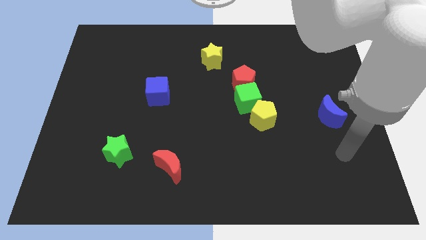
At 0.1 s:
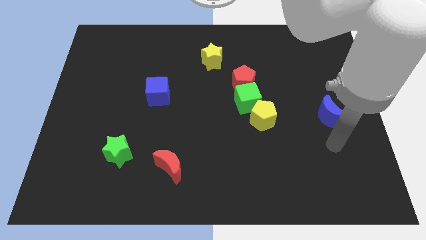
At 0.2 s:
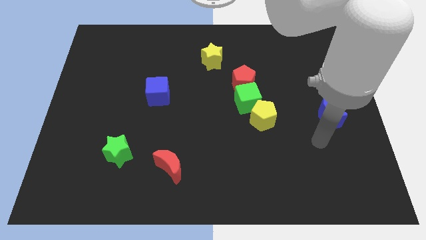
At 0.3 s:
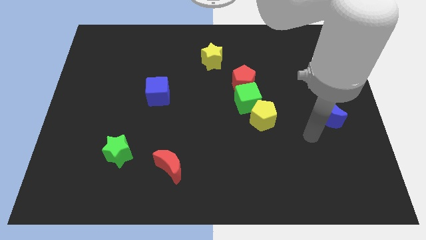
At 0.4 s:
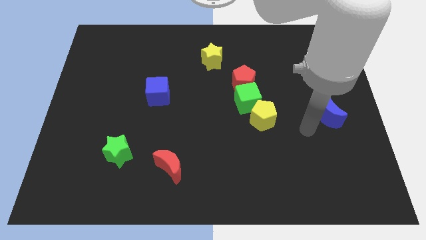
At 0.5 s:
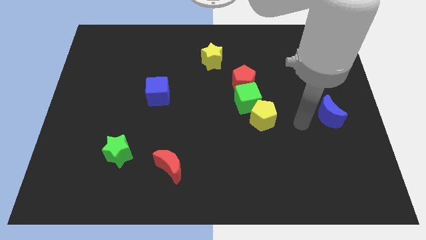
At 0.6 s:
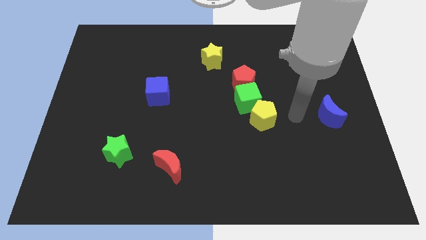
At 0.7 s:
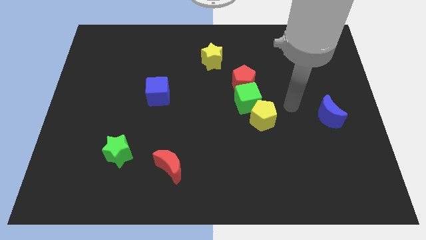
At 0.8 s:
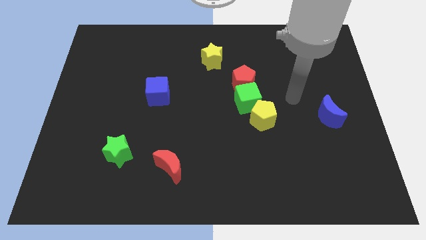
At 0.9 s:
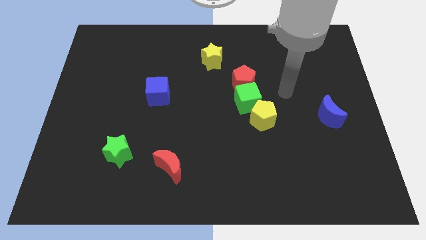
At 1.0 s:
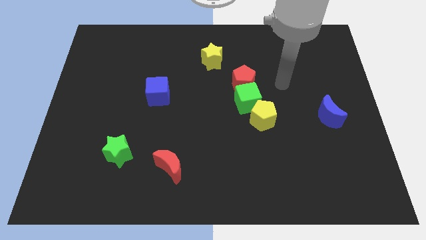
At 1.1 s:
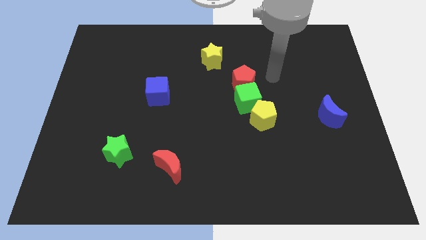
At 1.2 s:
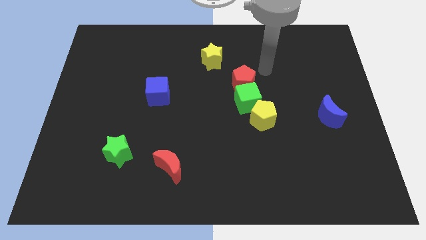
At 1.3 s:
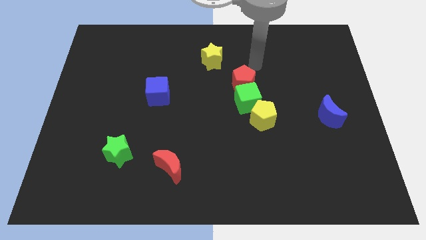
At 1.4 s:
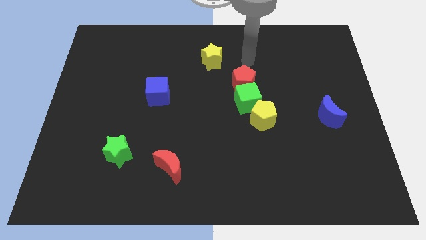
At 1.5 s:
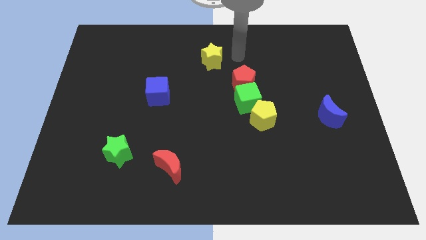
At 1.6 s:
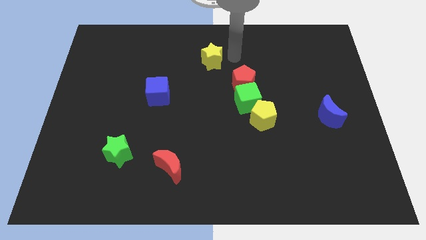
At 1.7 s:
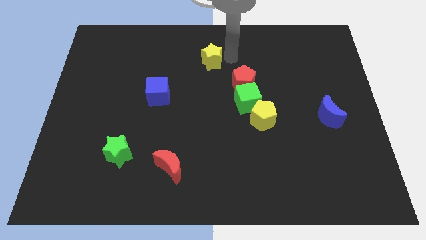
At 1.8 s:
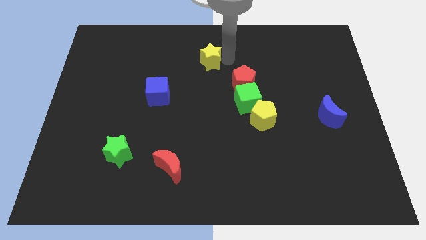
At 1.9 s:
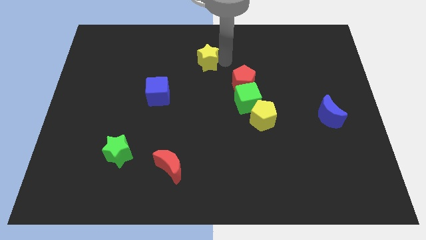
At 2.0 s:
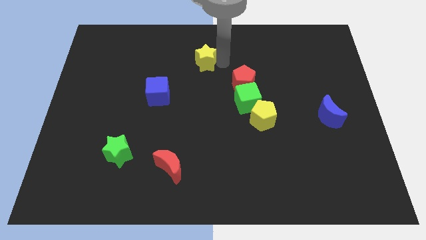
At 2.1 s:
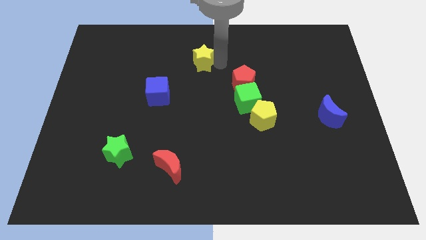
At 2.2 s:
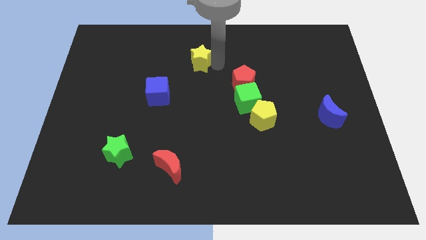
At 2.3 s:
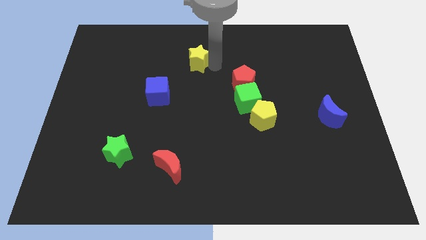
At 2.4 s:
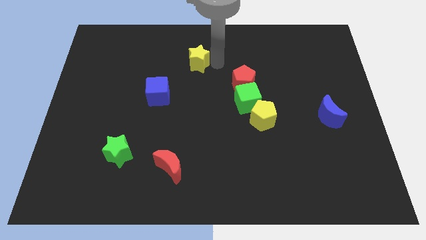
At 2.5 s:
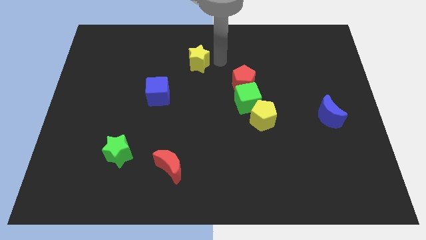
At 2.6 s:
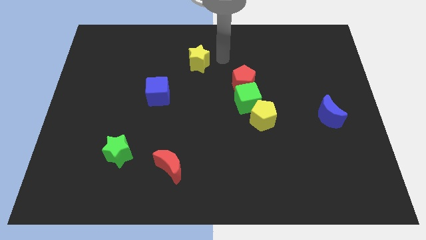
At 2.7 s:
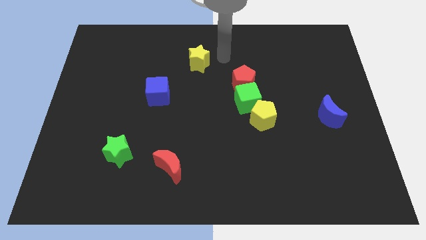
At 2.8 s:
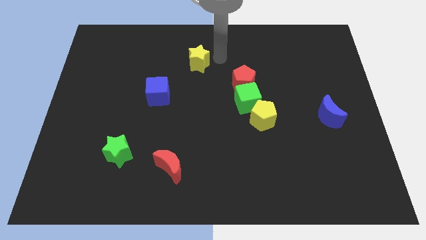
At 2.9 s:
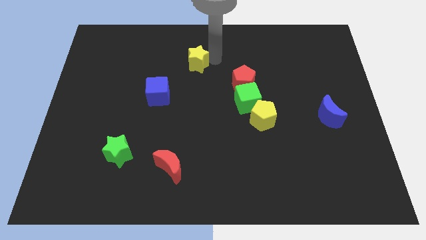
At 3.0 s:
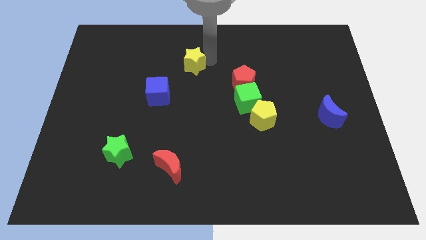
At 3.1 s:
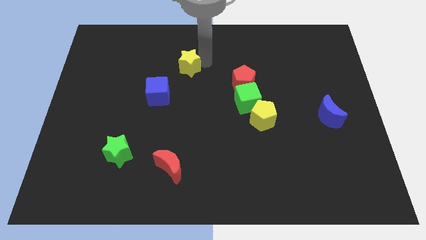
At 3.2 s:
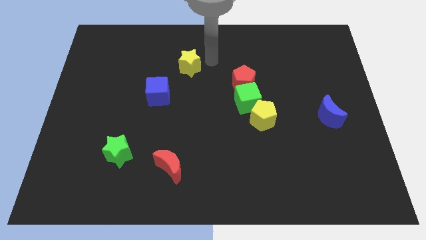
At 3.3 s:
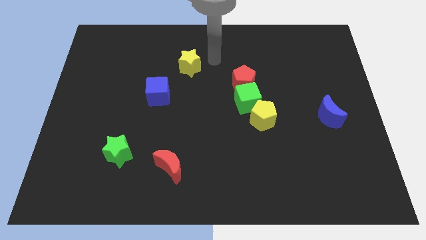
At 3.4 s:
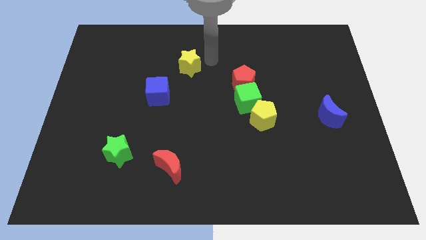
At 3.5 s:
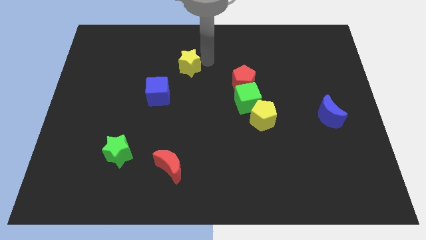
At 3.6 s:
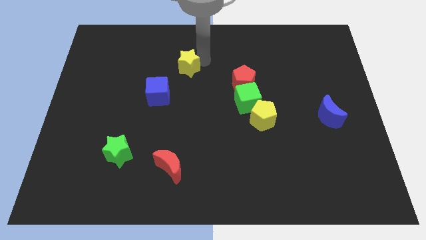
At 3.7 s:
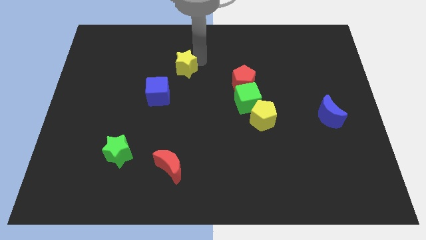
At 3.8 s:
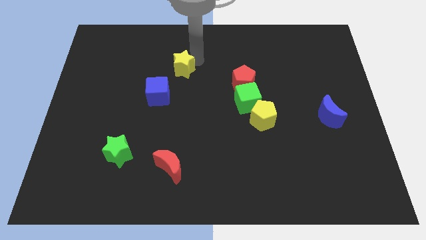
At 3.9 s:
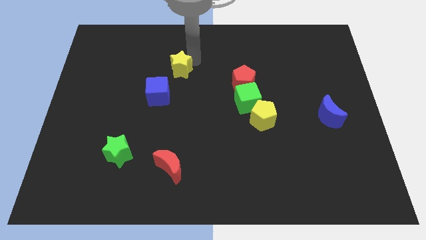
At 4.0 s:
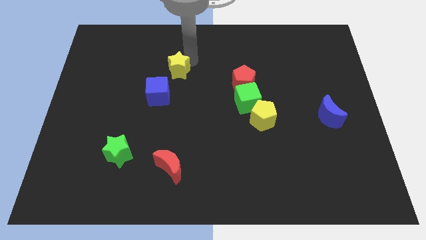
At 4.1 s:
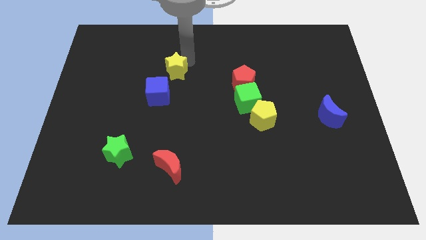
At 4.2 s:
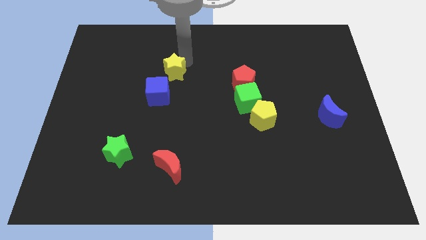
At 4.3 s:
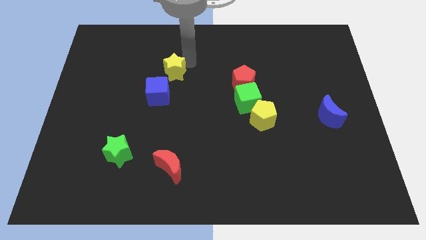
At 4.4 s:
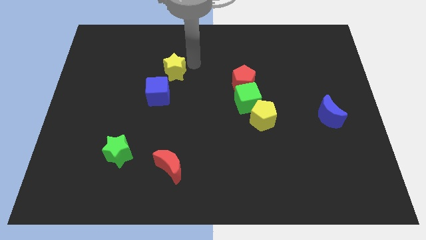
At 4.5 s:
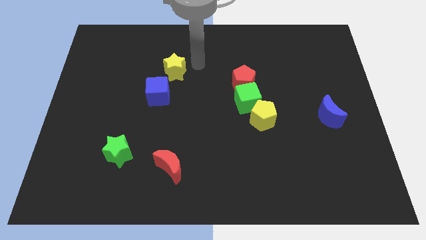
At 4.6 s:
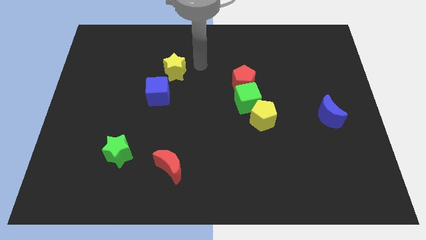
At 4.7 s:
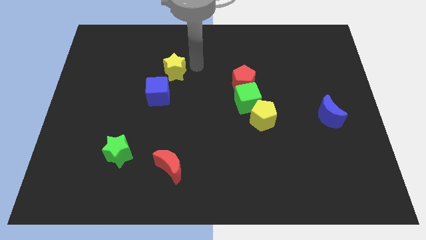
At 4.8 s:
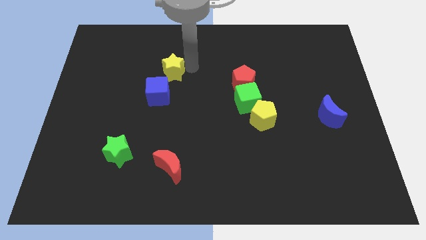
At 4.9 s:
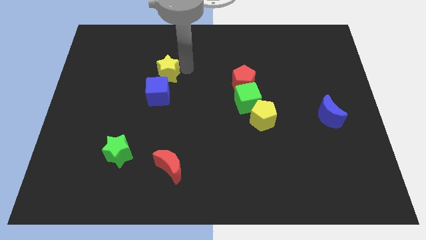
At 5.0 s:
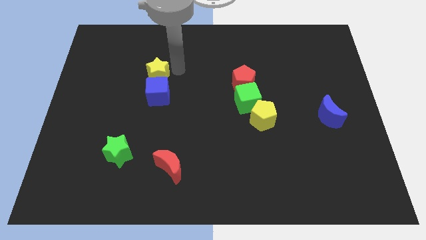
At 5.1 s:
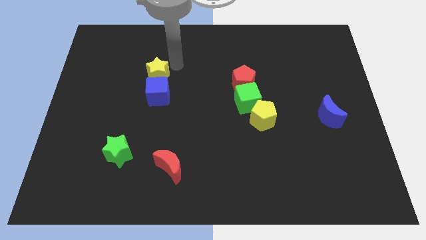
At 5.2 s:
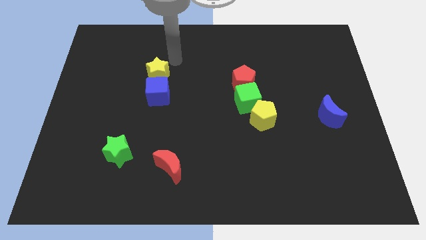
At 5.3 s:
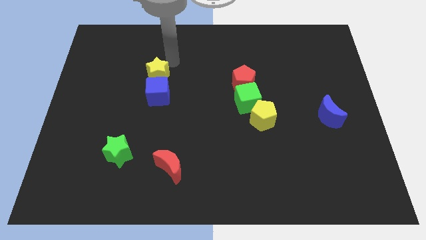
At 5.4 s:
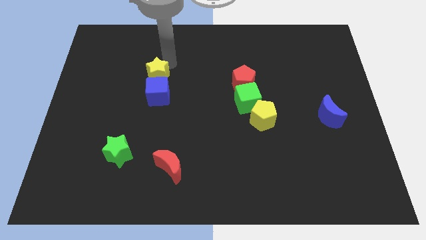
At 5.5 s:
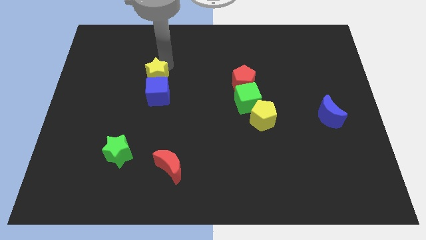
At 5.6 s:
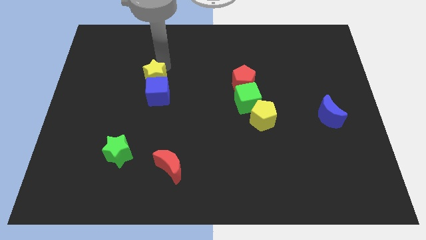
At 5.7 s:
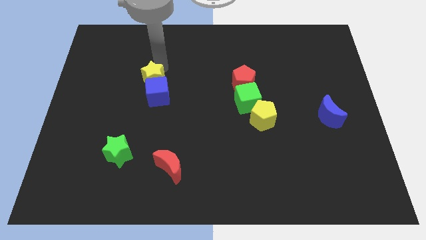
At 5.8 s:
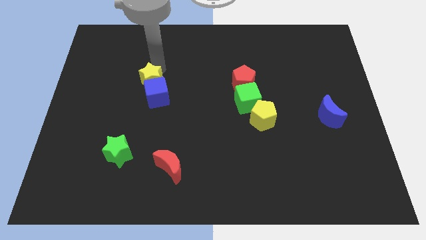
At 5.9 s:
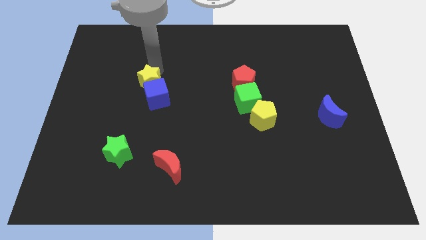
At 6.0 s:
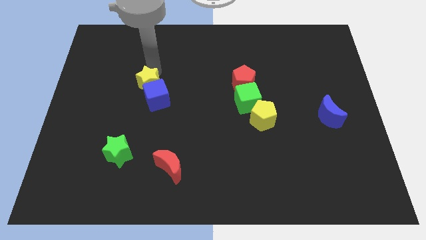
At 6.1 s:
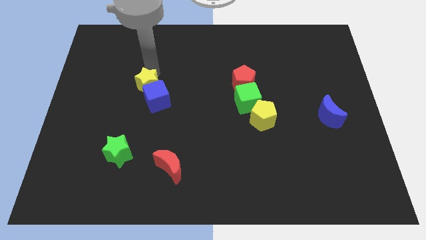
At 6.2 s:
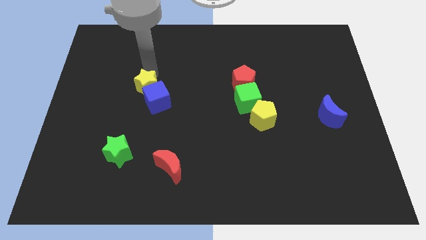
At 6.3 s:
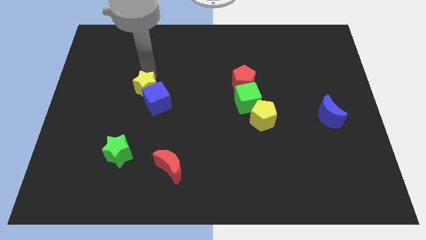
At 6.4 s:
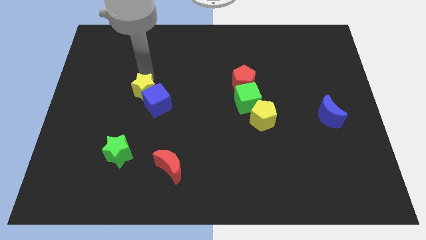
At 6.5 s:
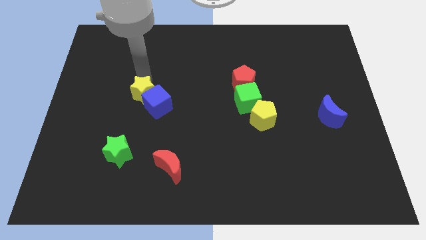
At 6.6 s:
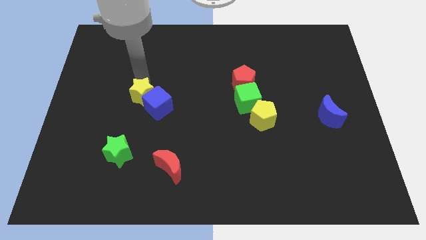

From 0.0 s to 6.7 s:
slide the yellow star downwards and then left

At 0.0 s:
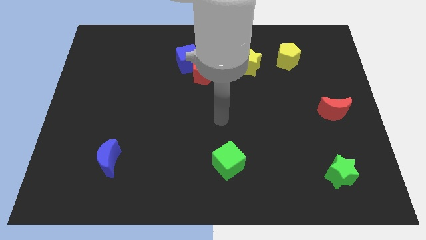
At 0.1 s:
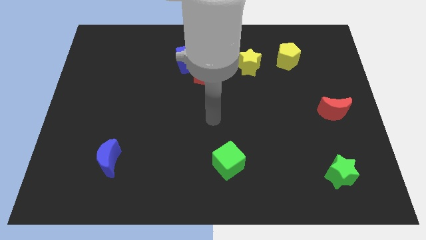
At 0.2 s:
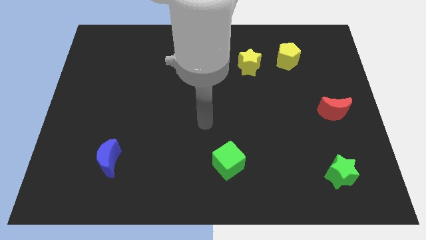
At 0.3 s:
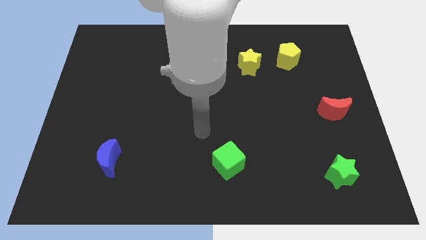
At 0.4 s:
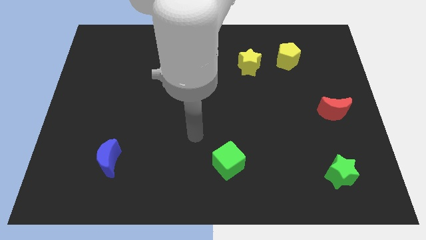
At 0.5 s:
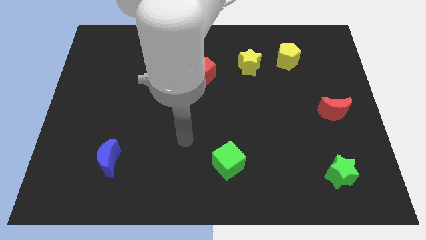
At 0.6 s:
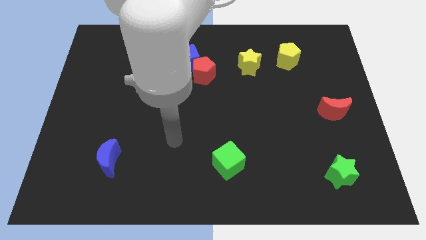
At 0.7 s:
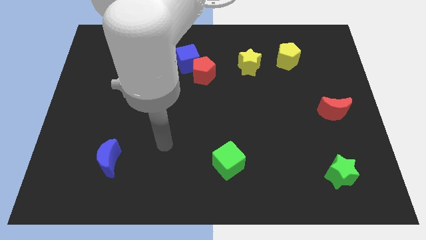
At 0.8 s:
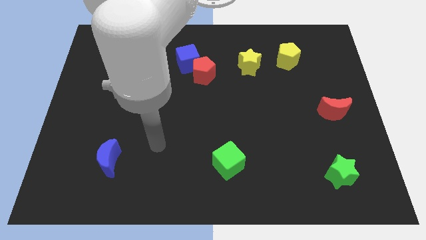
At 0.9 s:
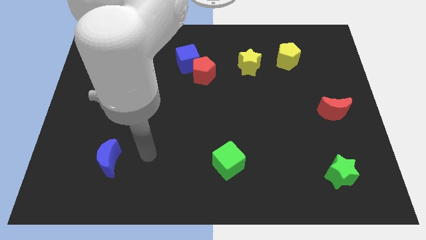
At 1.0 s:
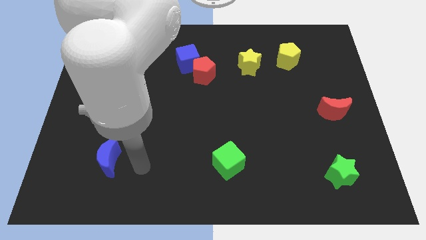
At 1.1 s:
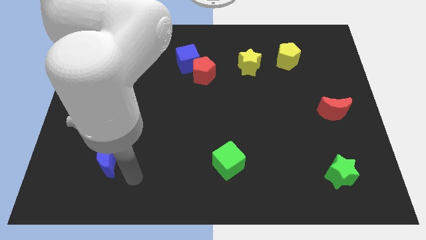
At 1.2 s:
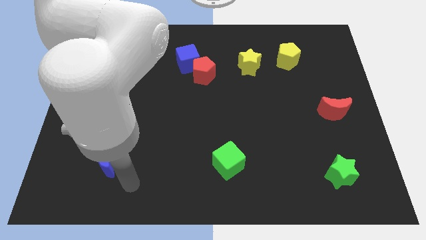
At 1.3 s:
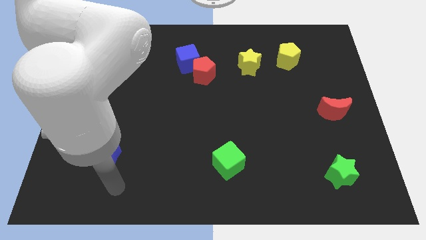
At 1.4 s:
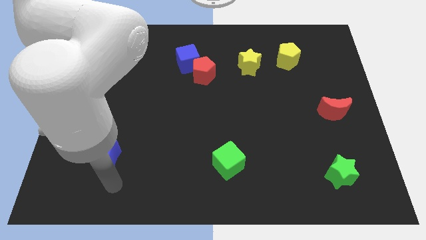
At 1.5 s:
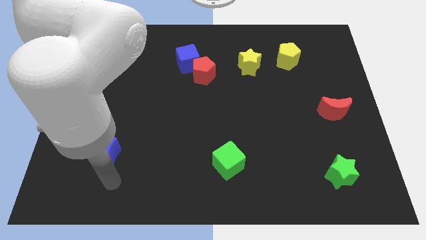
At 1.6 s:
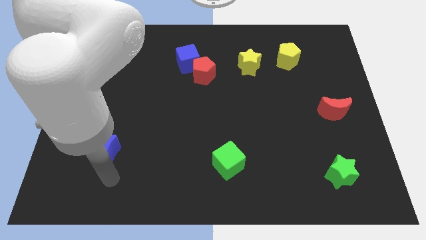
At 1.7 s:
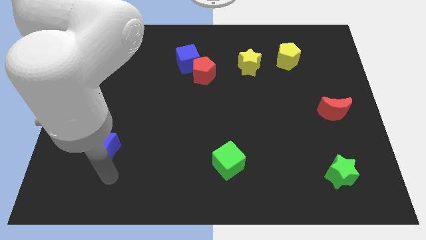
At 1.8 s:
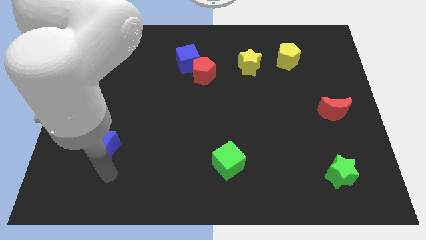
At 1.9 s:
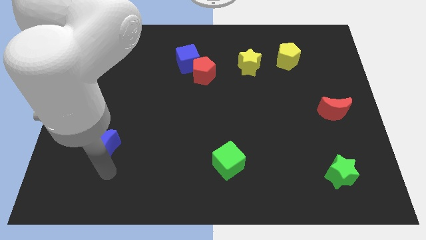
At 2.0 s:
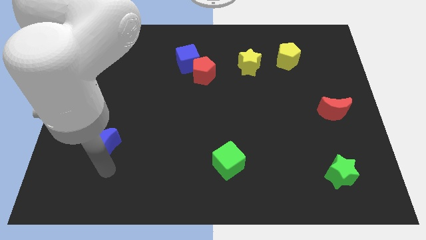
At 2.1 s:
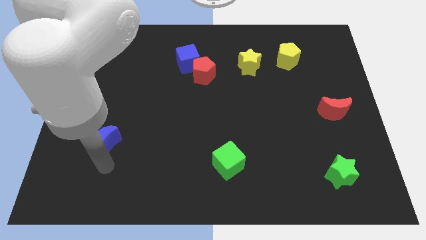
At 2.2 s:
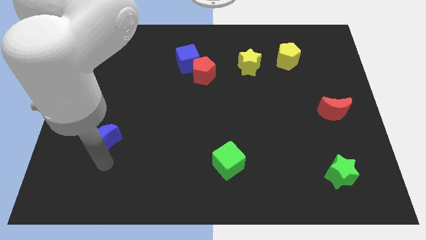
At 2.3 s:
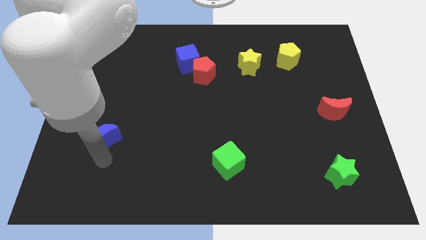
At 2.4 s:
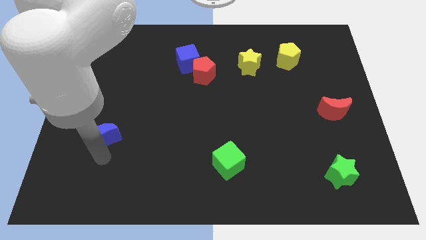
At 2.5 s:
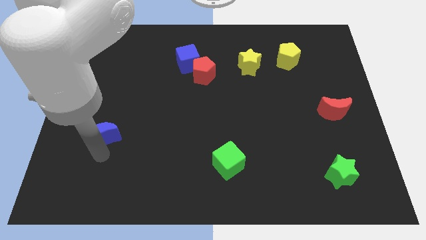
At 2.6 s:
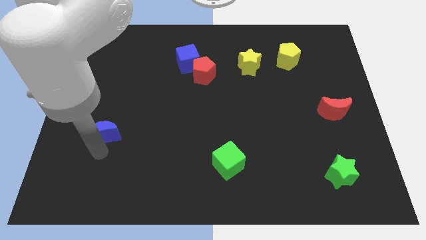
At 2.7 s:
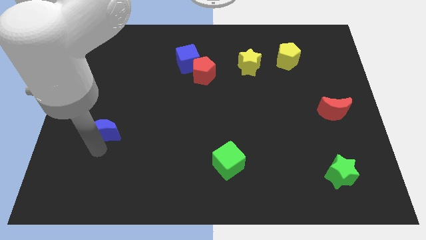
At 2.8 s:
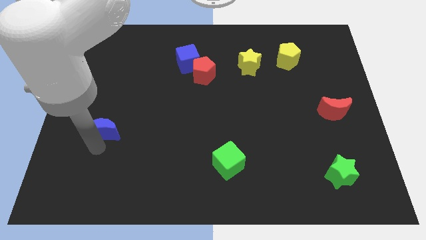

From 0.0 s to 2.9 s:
move the blue moon up a little
